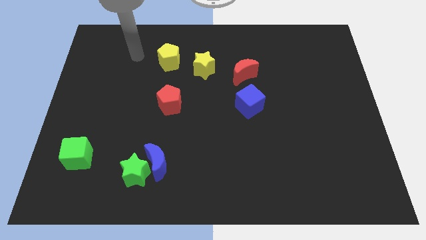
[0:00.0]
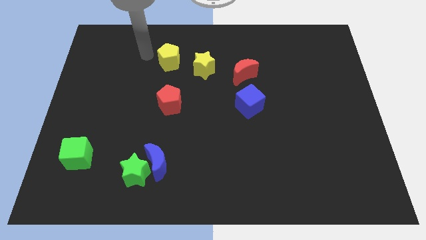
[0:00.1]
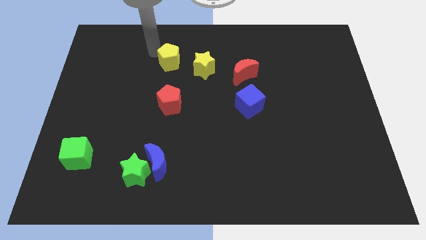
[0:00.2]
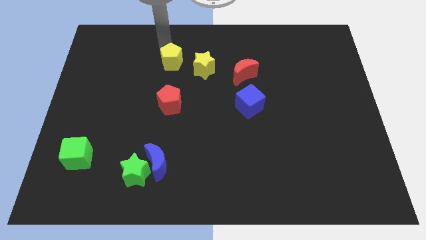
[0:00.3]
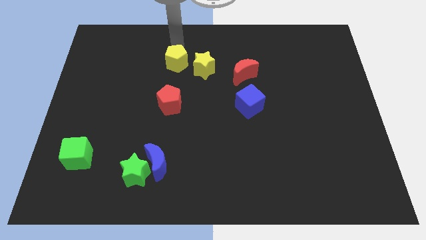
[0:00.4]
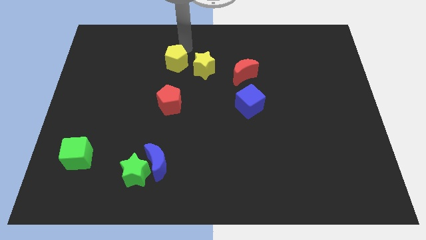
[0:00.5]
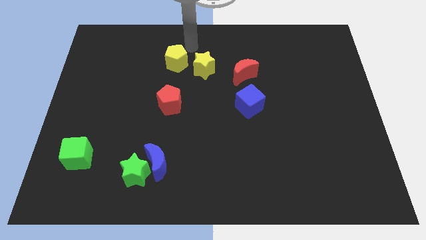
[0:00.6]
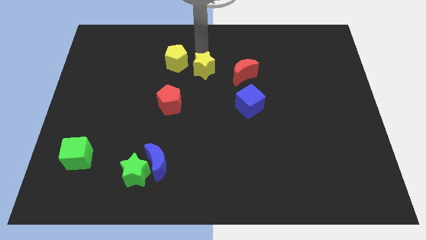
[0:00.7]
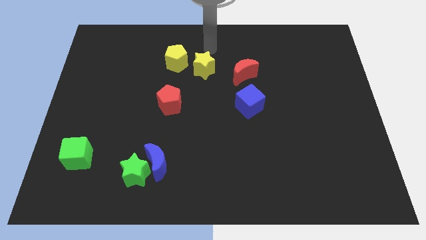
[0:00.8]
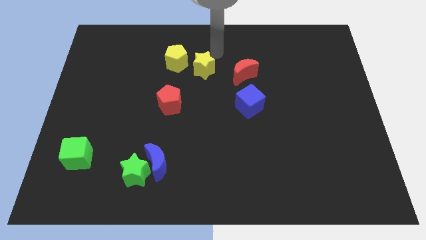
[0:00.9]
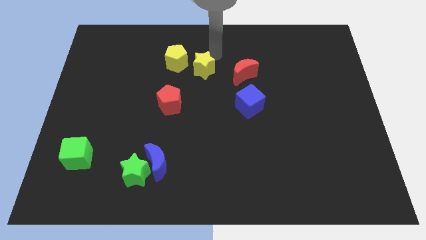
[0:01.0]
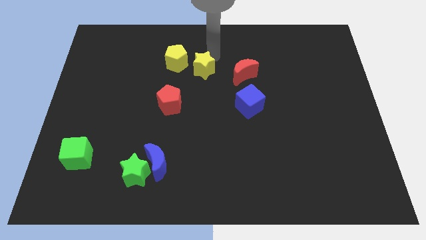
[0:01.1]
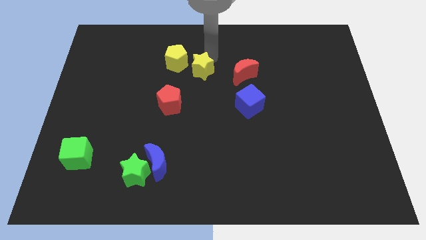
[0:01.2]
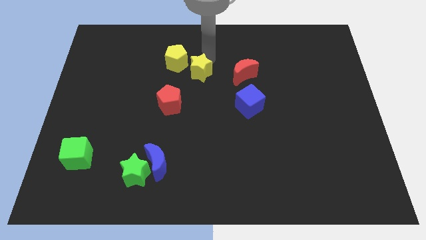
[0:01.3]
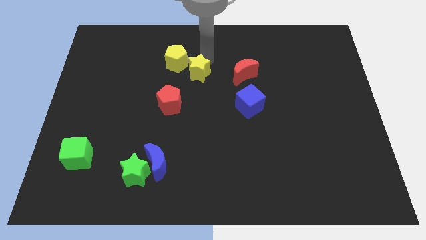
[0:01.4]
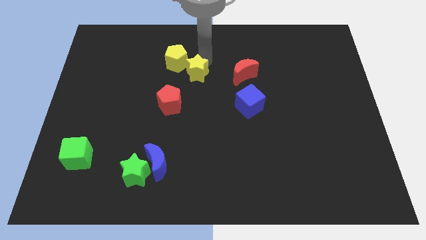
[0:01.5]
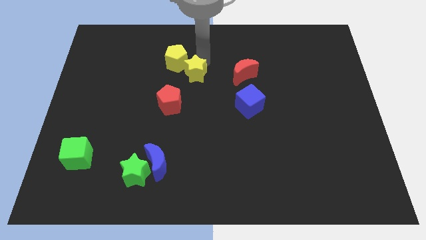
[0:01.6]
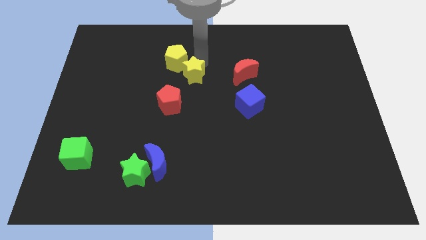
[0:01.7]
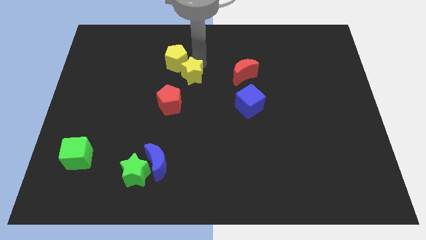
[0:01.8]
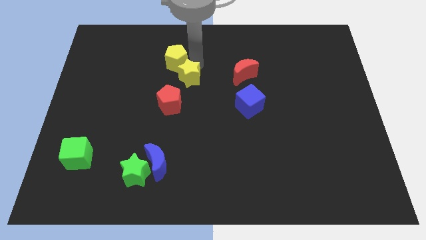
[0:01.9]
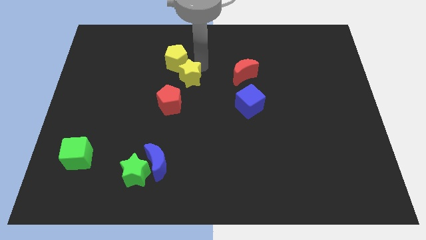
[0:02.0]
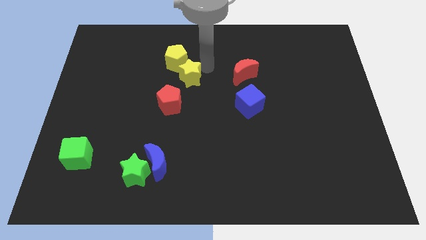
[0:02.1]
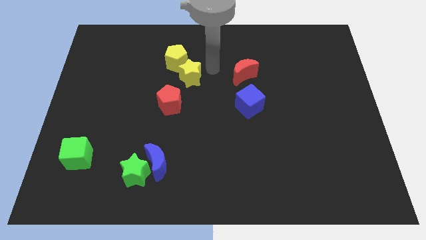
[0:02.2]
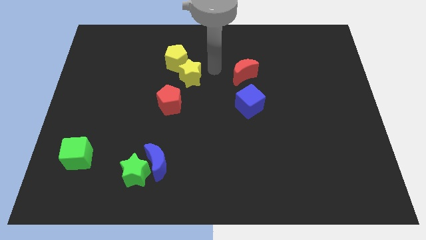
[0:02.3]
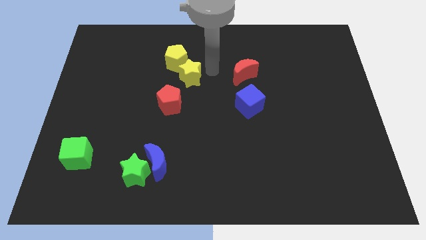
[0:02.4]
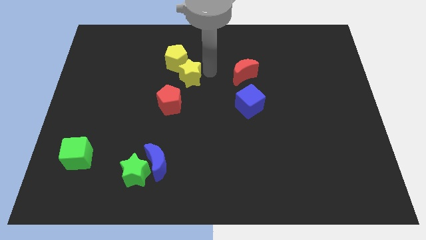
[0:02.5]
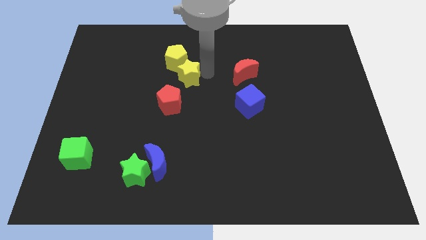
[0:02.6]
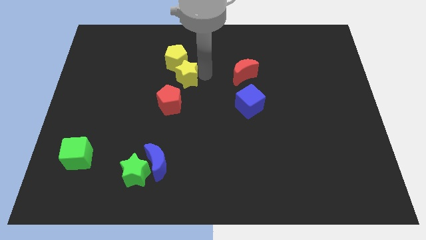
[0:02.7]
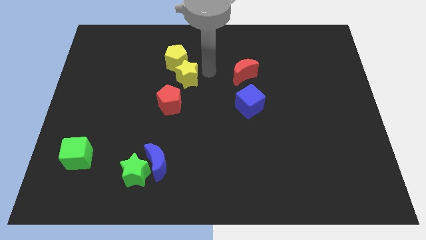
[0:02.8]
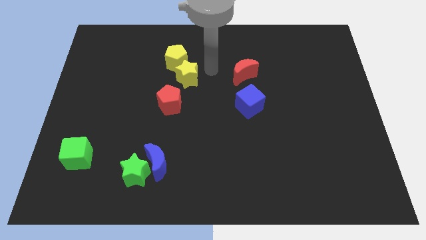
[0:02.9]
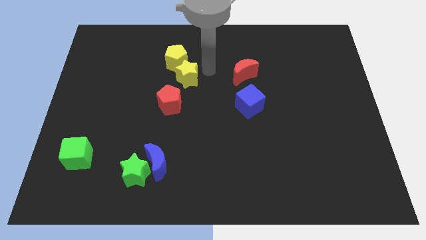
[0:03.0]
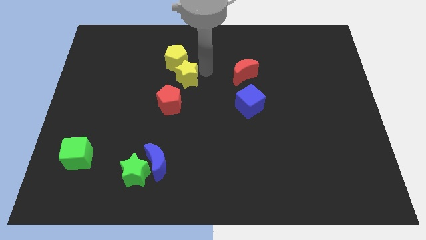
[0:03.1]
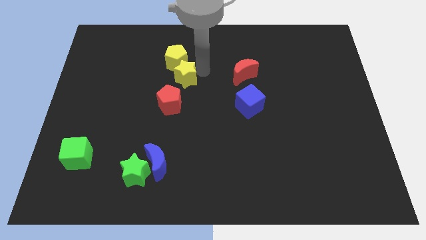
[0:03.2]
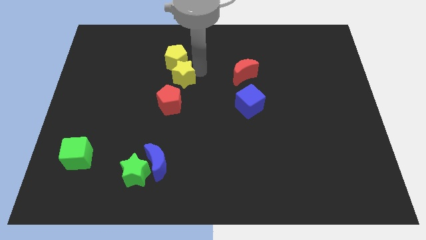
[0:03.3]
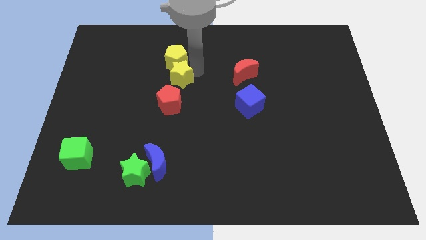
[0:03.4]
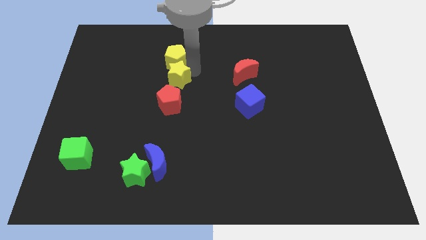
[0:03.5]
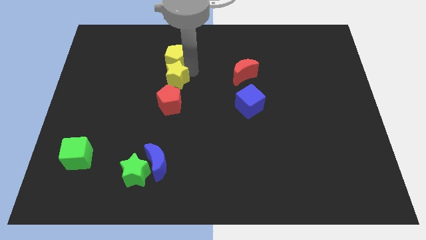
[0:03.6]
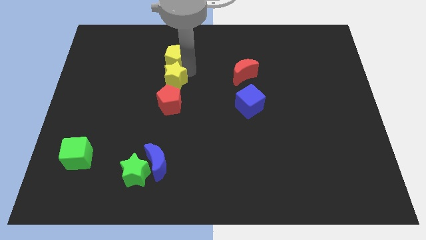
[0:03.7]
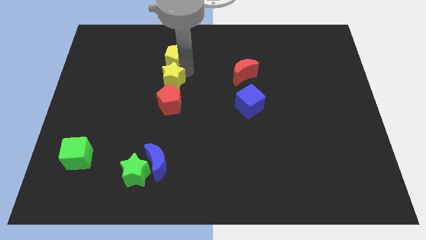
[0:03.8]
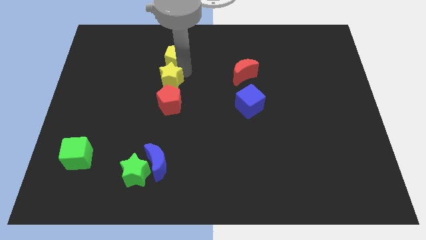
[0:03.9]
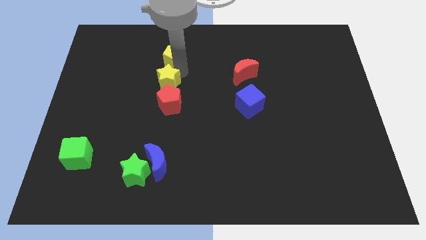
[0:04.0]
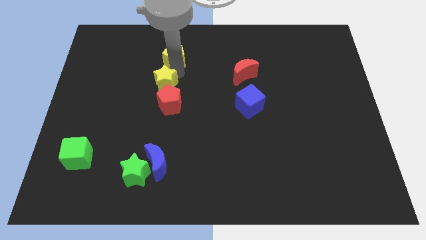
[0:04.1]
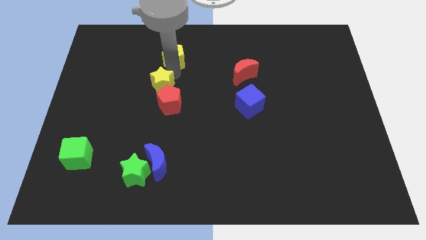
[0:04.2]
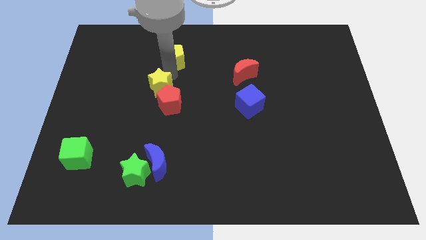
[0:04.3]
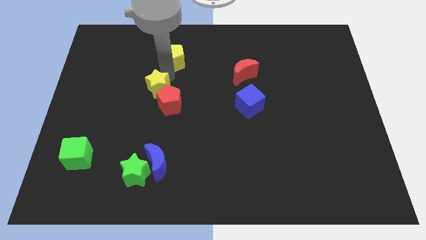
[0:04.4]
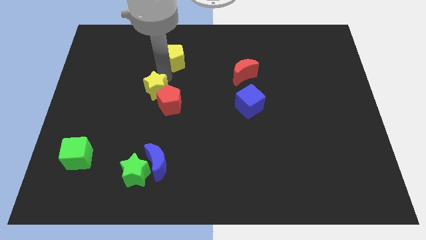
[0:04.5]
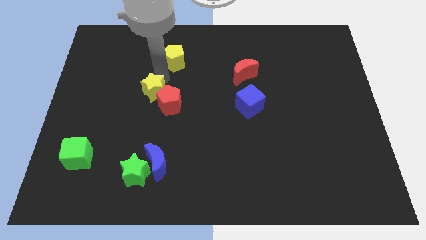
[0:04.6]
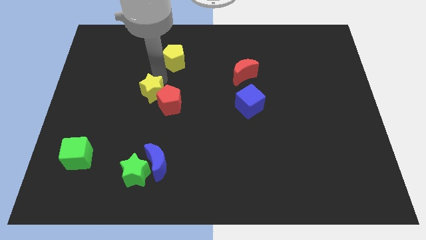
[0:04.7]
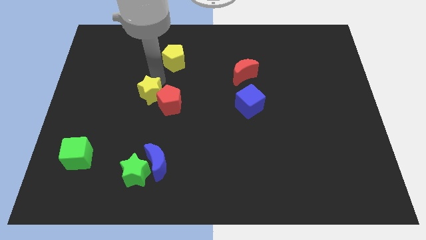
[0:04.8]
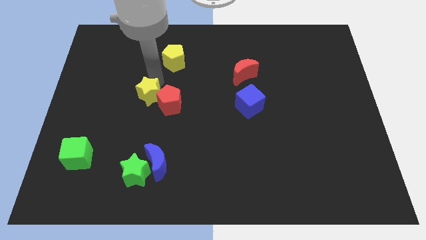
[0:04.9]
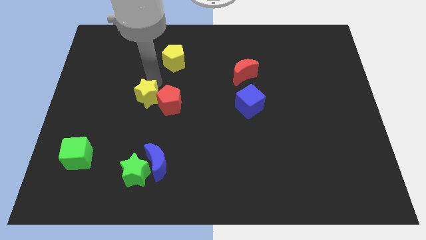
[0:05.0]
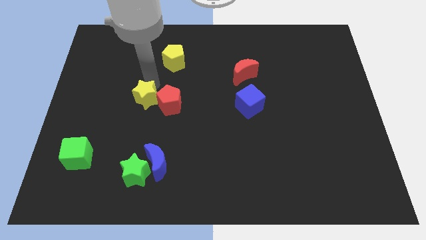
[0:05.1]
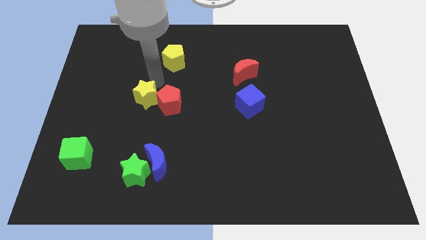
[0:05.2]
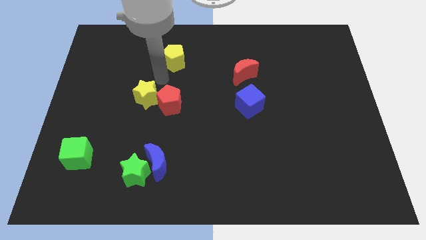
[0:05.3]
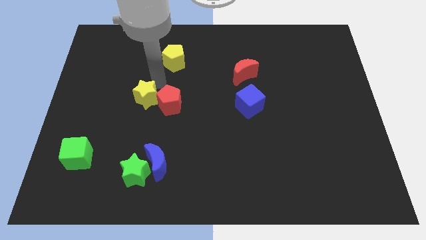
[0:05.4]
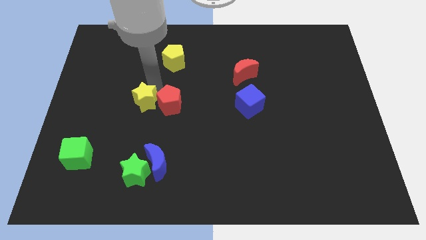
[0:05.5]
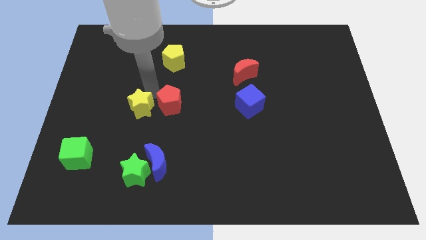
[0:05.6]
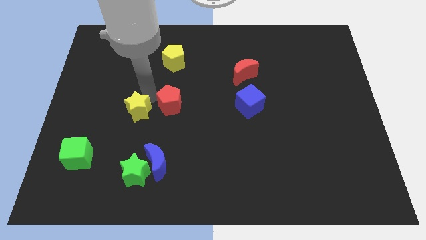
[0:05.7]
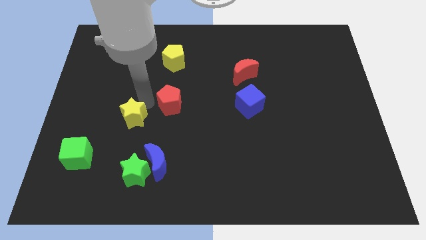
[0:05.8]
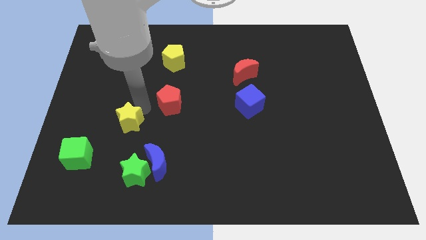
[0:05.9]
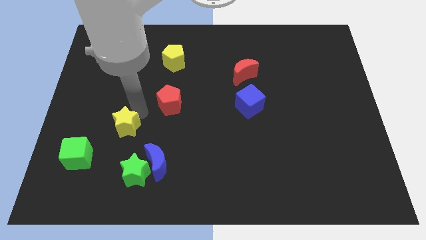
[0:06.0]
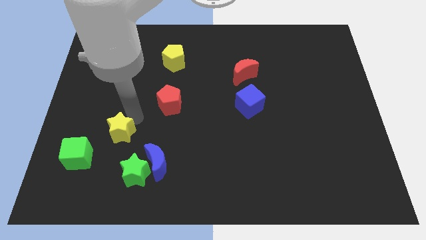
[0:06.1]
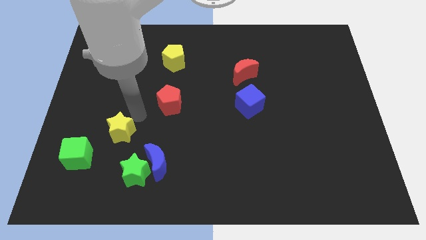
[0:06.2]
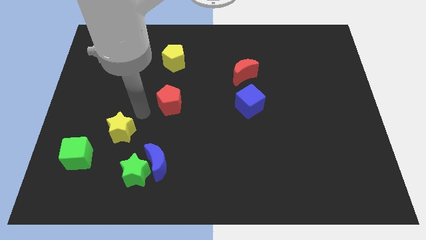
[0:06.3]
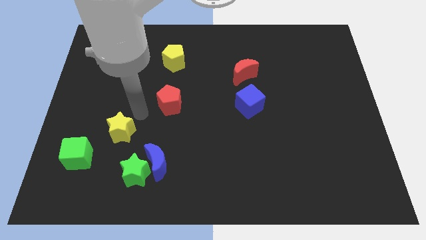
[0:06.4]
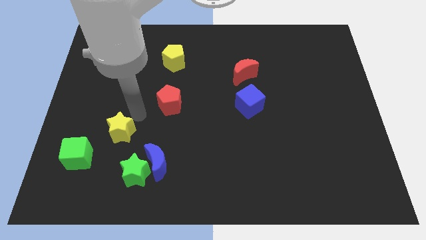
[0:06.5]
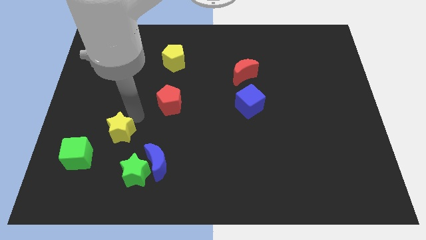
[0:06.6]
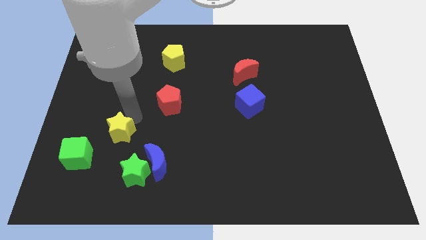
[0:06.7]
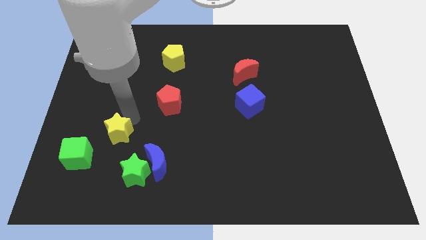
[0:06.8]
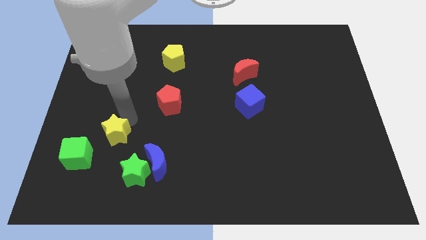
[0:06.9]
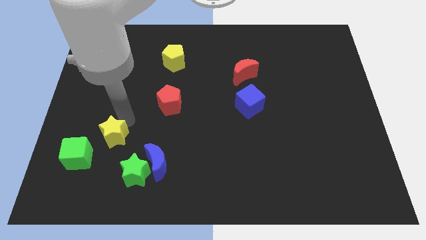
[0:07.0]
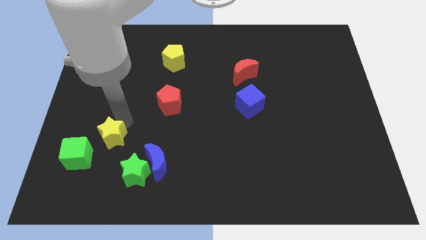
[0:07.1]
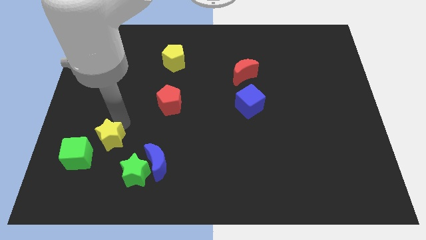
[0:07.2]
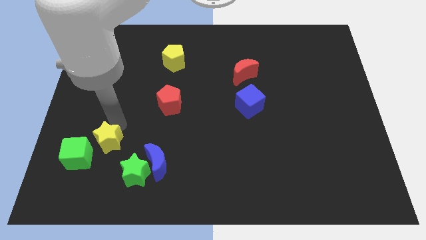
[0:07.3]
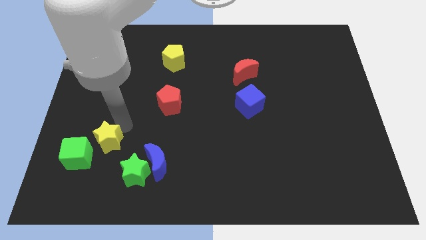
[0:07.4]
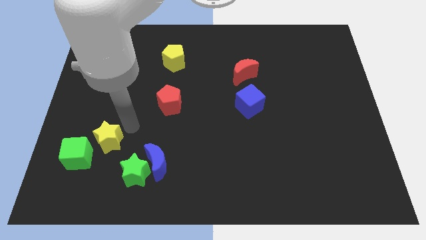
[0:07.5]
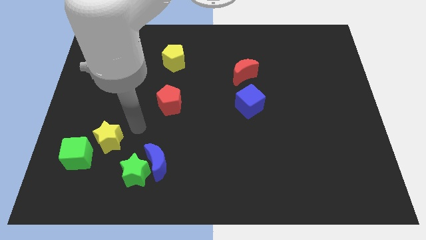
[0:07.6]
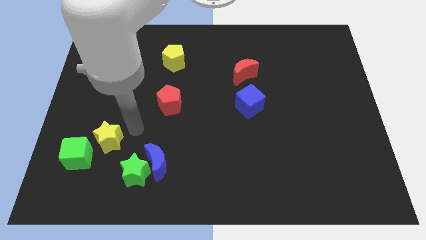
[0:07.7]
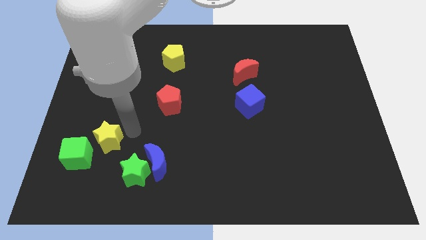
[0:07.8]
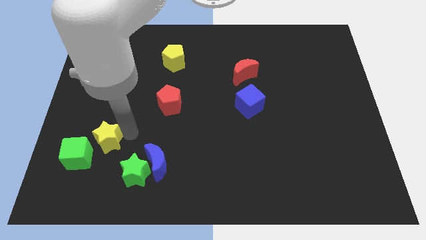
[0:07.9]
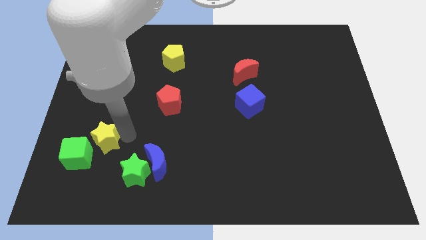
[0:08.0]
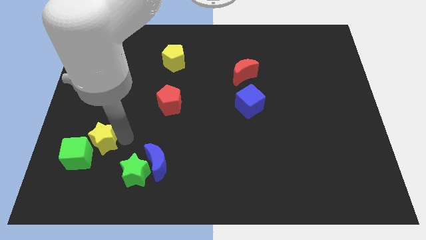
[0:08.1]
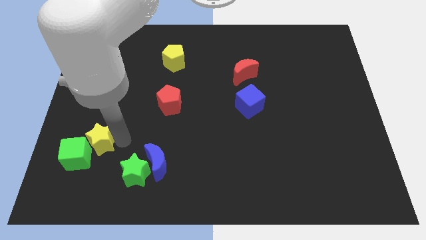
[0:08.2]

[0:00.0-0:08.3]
put the yellow star next to the green cube
